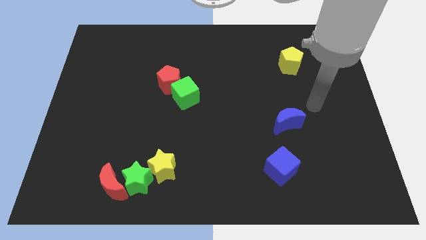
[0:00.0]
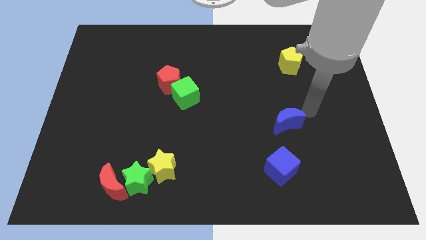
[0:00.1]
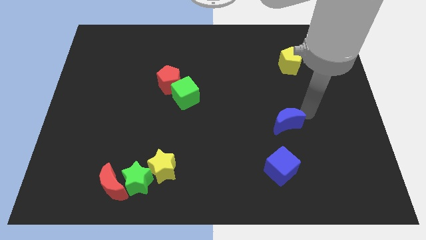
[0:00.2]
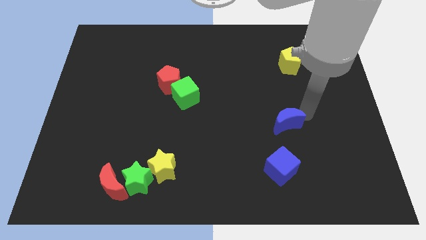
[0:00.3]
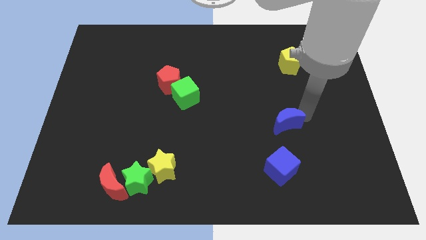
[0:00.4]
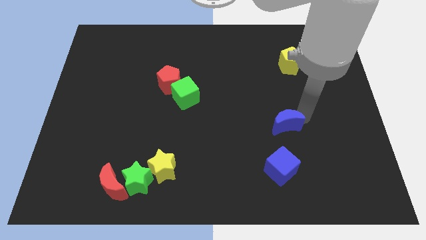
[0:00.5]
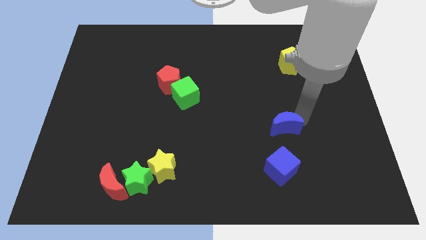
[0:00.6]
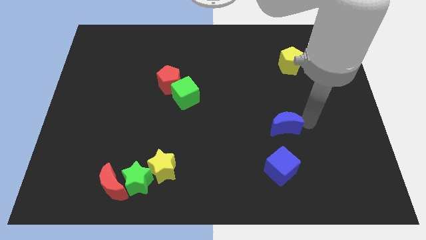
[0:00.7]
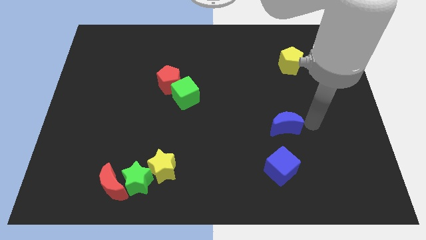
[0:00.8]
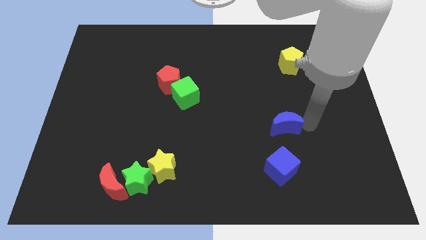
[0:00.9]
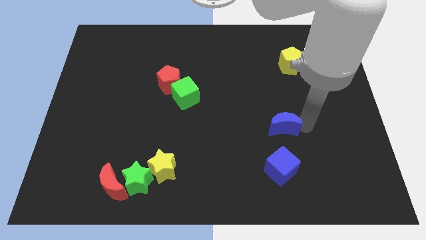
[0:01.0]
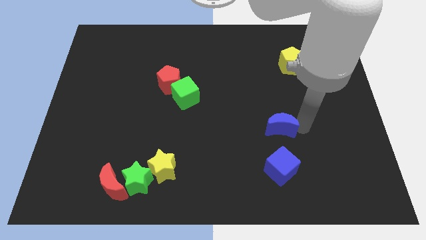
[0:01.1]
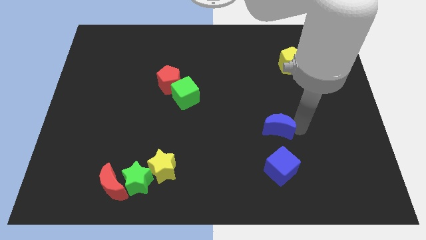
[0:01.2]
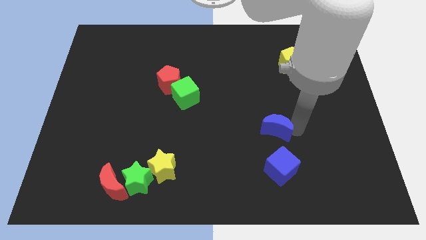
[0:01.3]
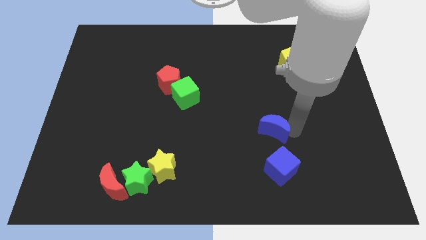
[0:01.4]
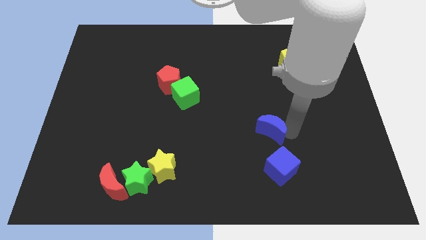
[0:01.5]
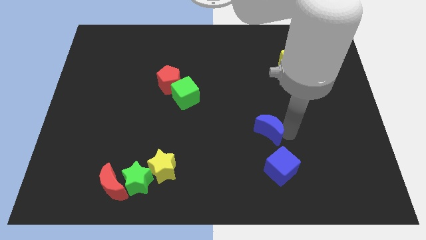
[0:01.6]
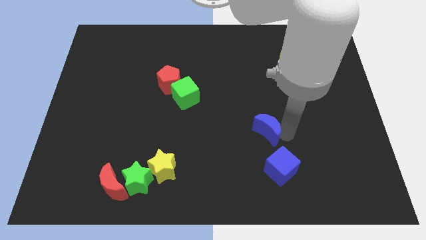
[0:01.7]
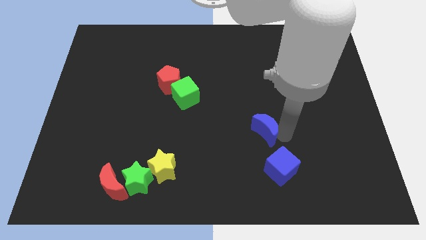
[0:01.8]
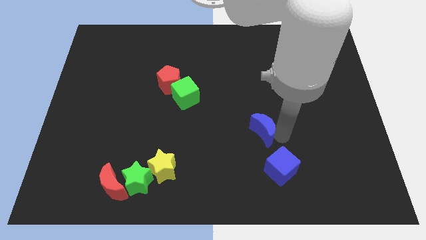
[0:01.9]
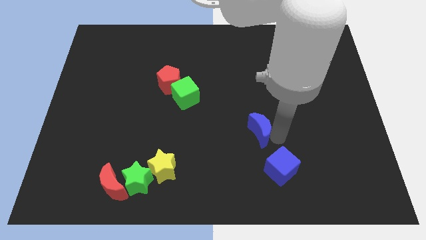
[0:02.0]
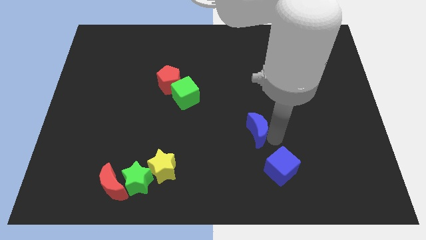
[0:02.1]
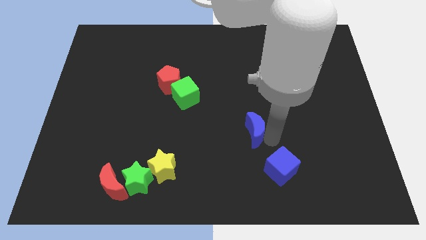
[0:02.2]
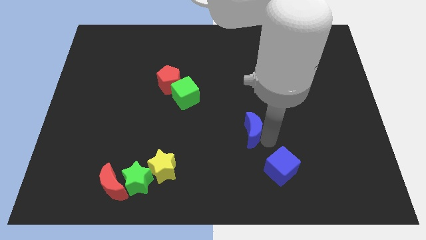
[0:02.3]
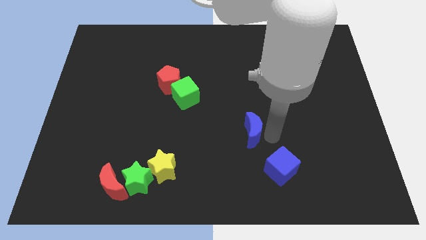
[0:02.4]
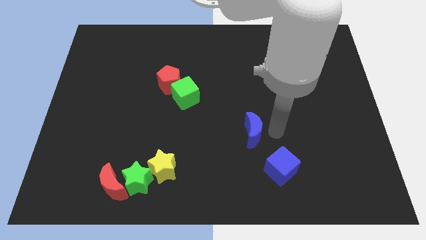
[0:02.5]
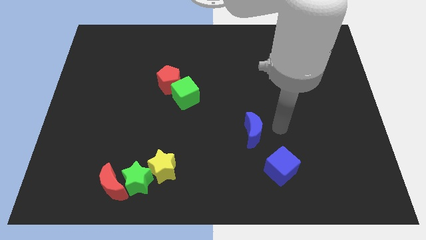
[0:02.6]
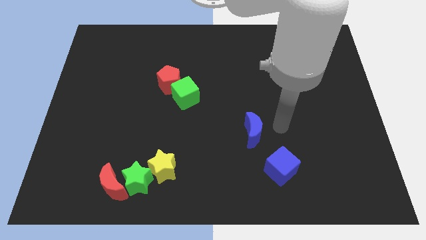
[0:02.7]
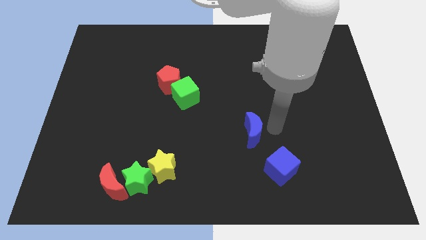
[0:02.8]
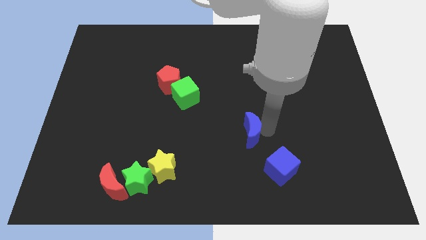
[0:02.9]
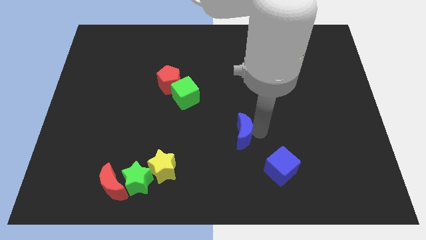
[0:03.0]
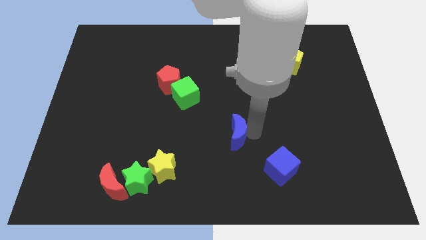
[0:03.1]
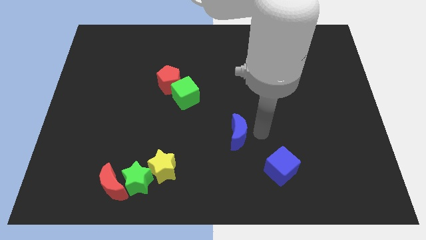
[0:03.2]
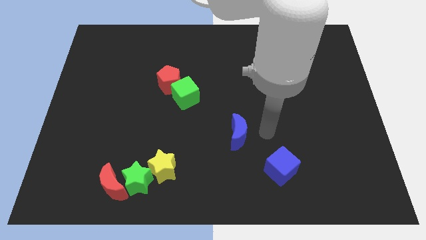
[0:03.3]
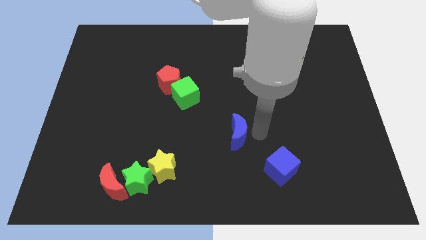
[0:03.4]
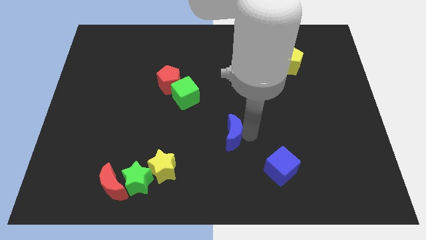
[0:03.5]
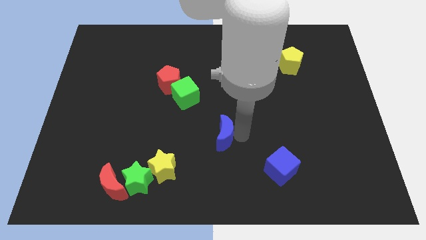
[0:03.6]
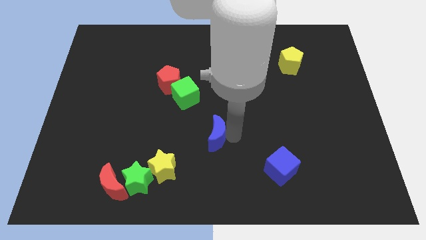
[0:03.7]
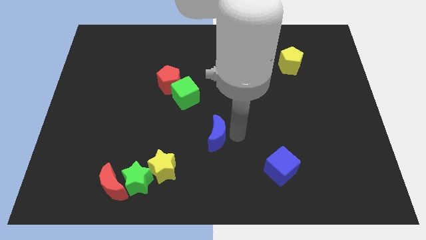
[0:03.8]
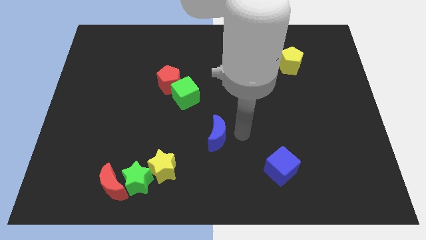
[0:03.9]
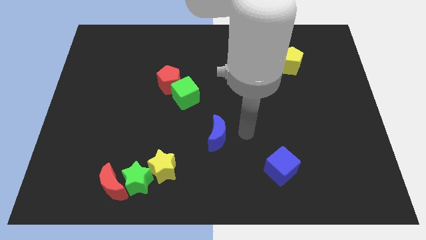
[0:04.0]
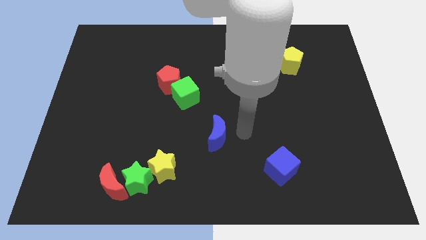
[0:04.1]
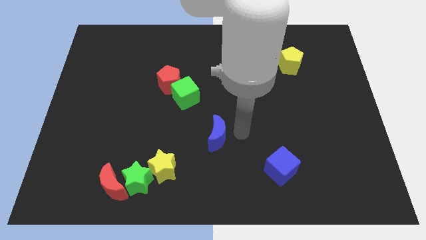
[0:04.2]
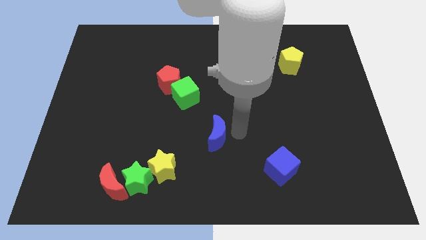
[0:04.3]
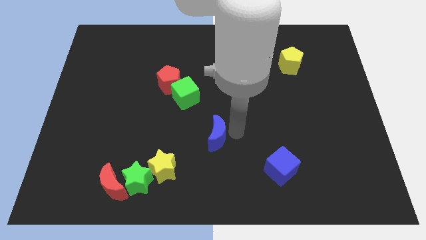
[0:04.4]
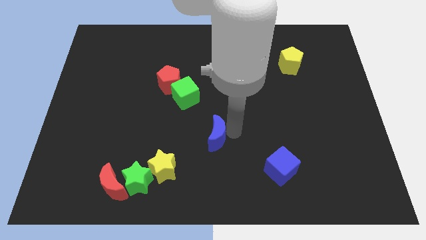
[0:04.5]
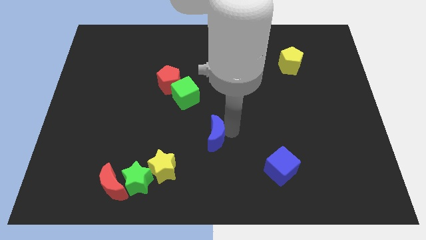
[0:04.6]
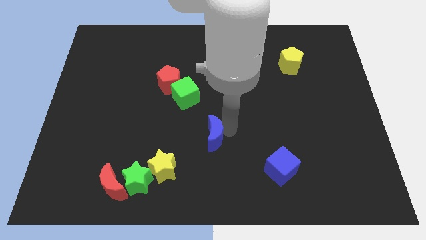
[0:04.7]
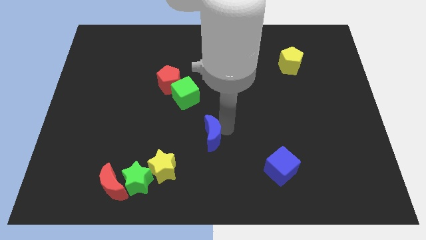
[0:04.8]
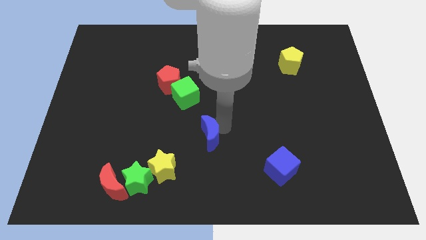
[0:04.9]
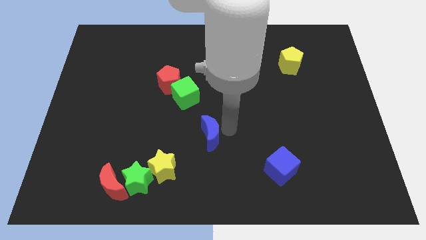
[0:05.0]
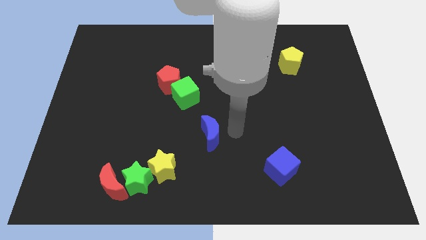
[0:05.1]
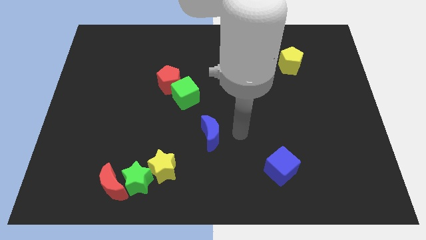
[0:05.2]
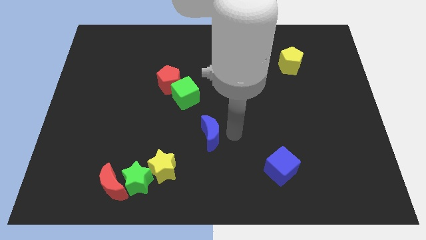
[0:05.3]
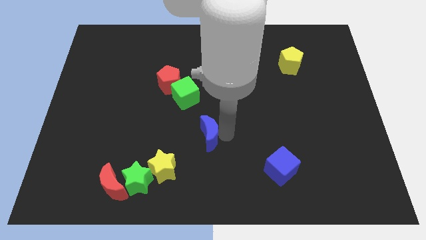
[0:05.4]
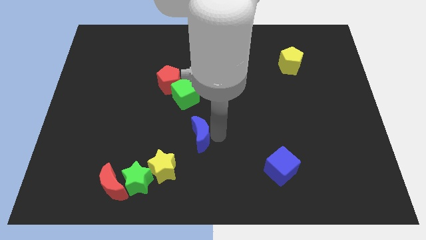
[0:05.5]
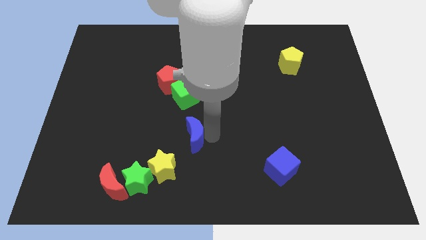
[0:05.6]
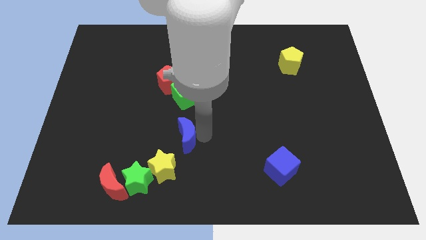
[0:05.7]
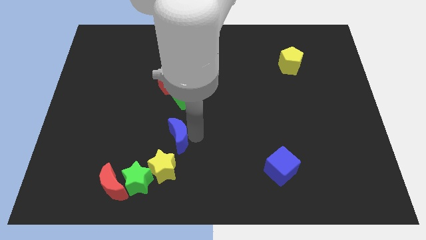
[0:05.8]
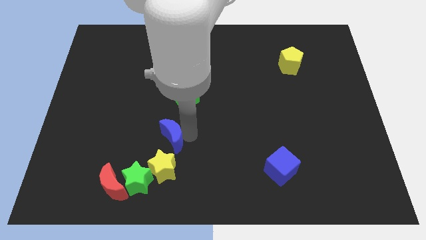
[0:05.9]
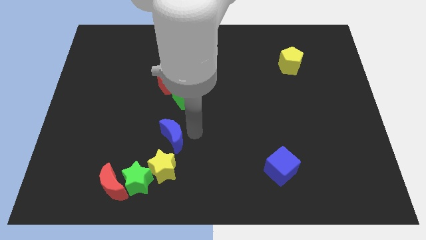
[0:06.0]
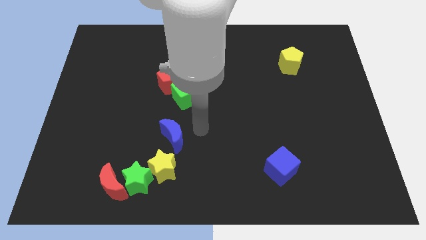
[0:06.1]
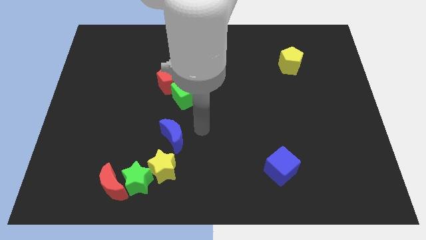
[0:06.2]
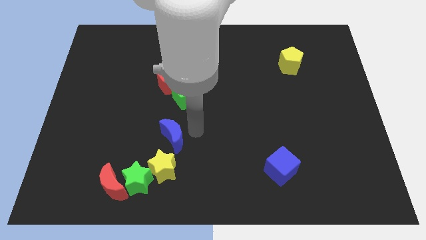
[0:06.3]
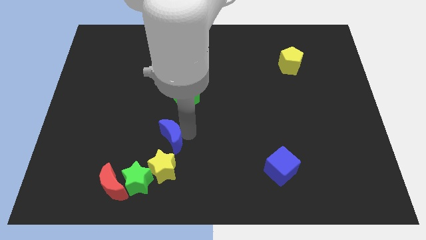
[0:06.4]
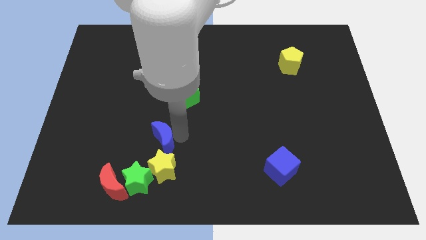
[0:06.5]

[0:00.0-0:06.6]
push the blue moon to the top left of the yellow star
